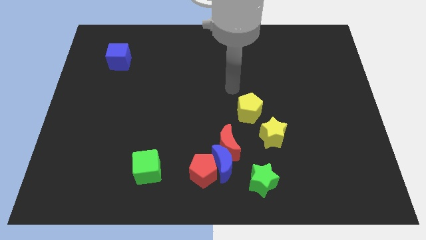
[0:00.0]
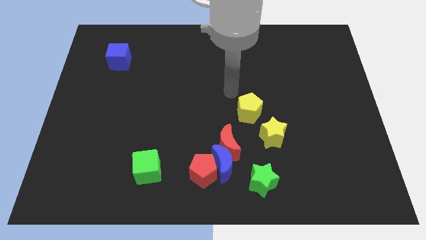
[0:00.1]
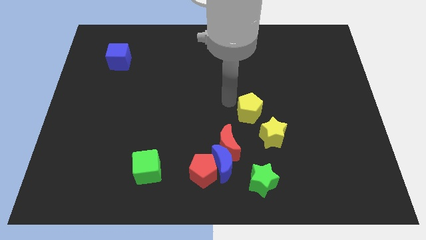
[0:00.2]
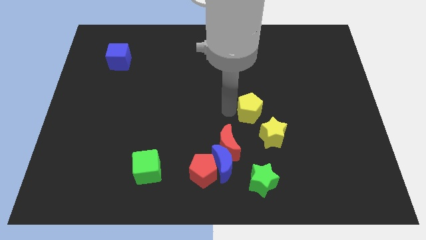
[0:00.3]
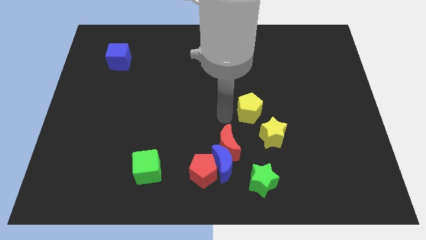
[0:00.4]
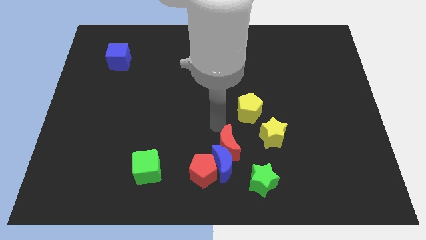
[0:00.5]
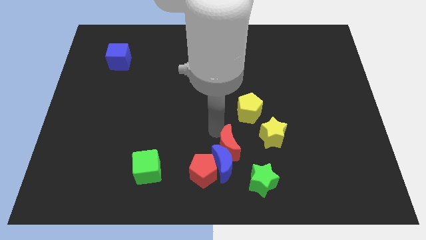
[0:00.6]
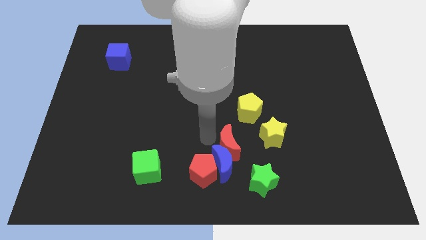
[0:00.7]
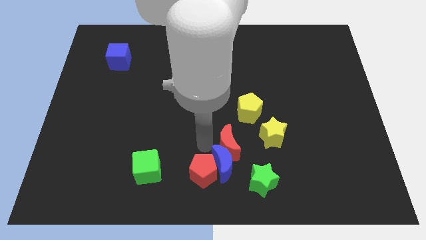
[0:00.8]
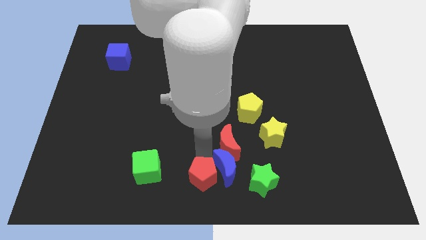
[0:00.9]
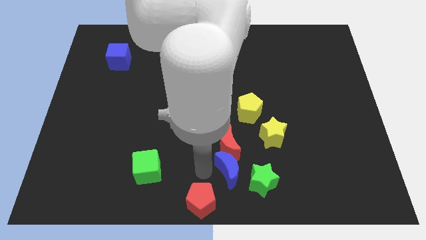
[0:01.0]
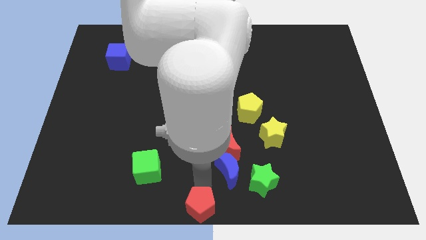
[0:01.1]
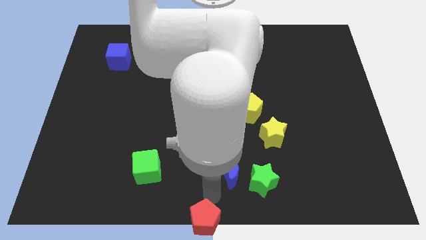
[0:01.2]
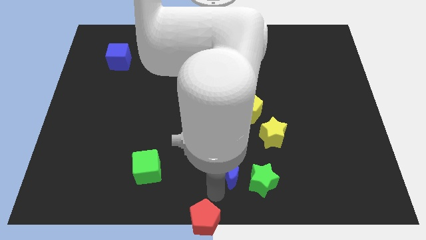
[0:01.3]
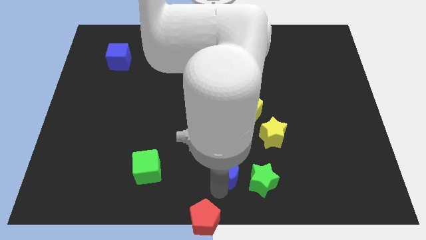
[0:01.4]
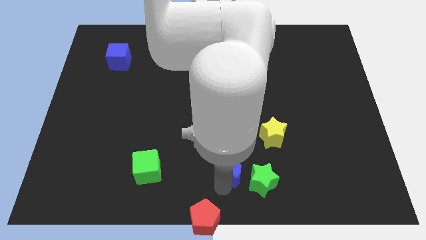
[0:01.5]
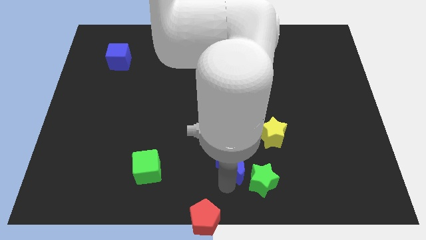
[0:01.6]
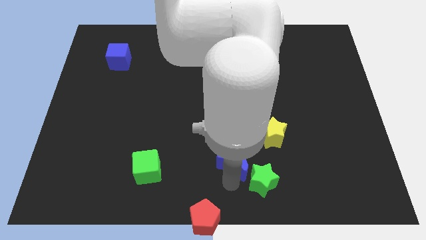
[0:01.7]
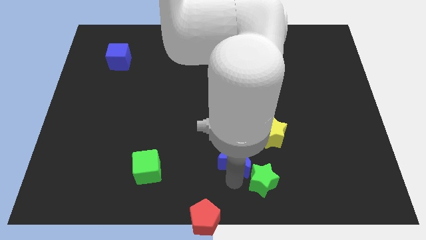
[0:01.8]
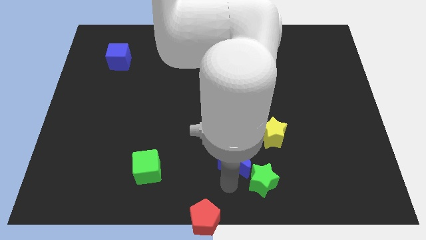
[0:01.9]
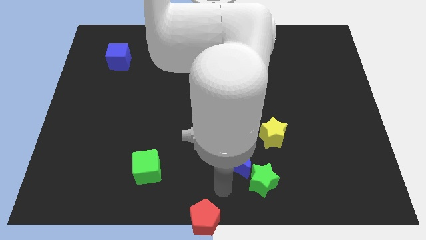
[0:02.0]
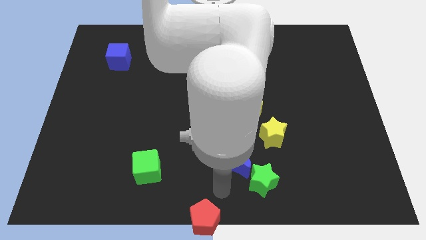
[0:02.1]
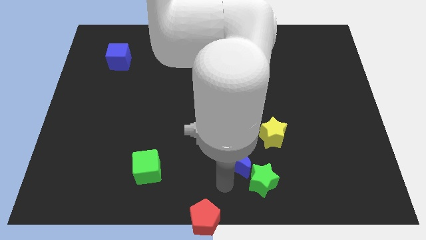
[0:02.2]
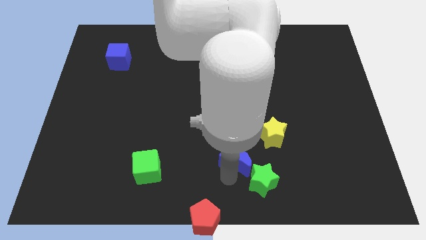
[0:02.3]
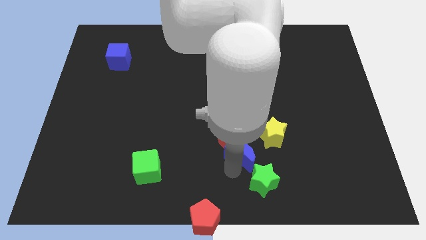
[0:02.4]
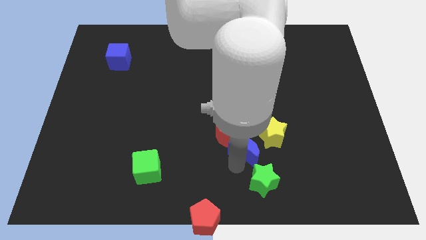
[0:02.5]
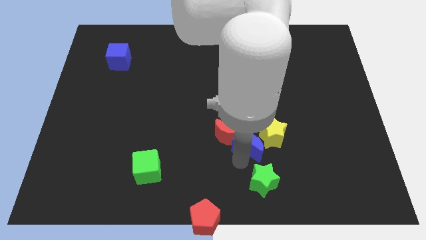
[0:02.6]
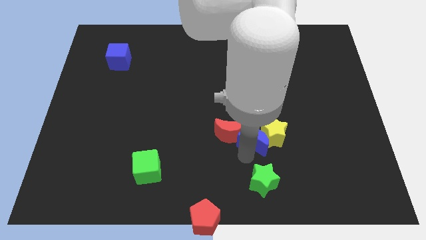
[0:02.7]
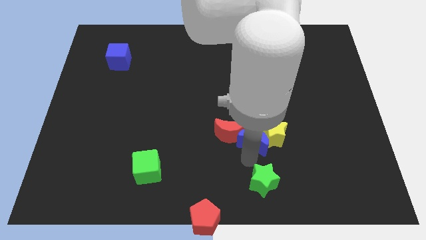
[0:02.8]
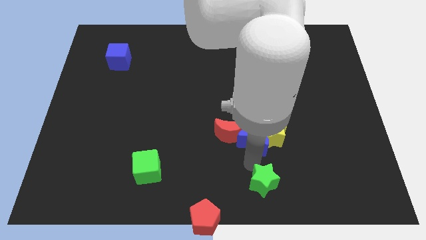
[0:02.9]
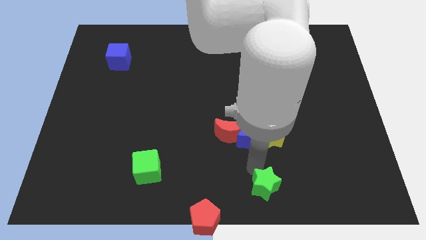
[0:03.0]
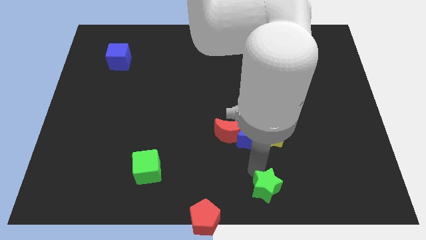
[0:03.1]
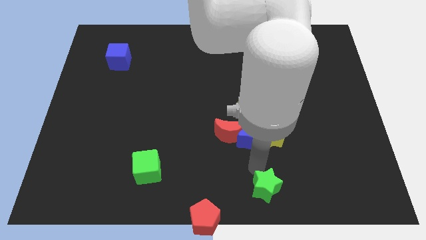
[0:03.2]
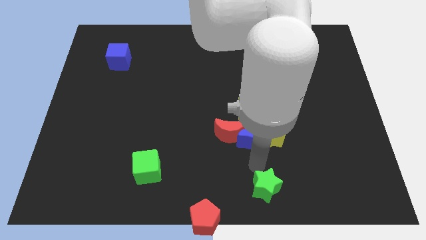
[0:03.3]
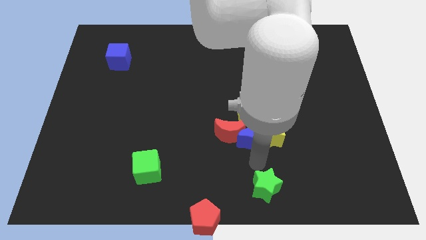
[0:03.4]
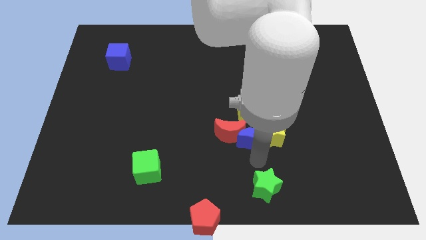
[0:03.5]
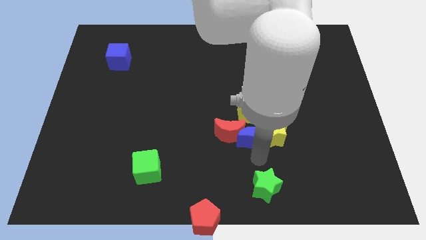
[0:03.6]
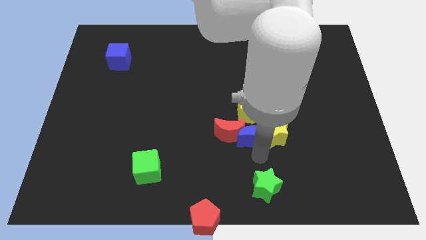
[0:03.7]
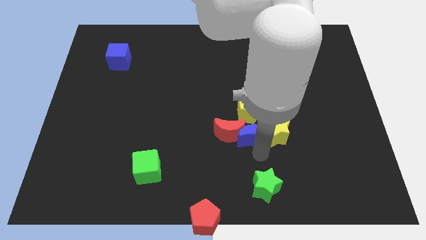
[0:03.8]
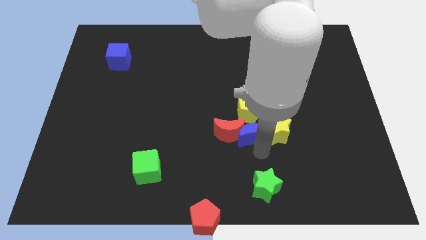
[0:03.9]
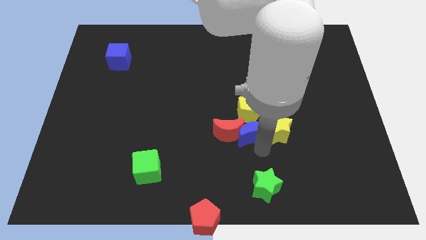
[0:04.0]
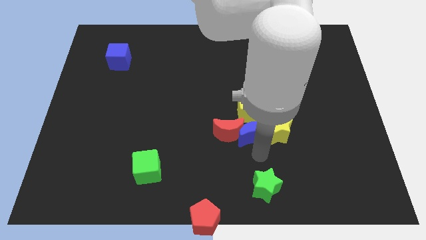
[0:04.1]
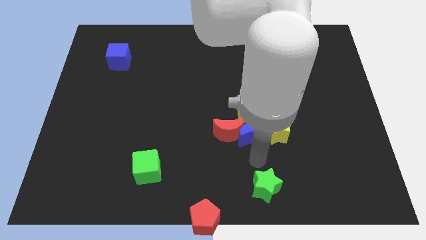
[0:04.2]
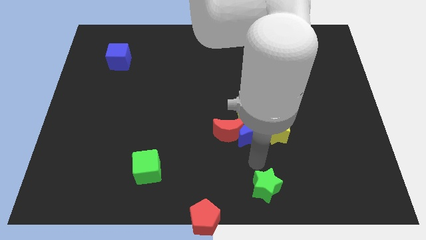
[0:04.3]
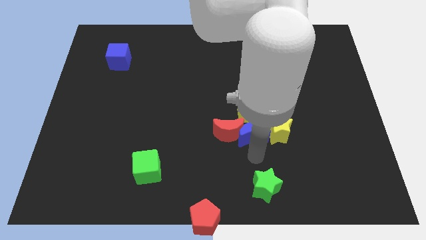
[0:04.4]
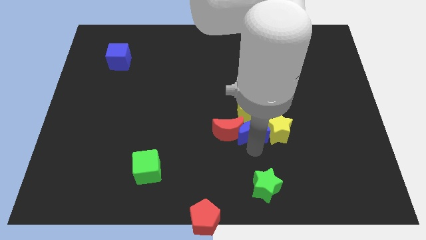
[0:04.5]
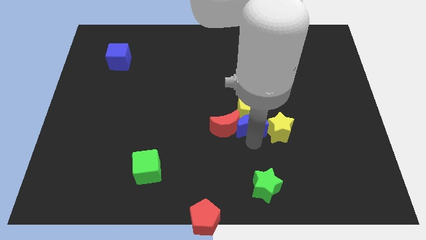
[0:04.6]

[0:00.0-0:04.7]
push the blue moon next to the yellow pentagon

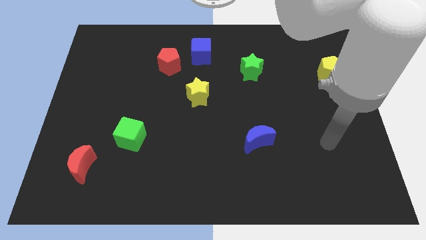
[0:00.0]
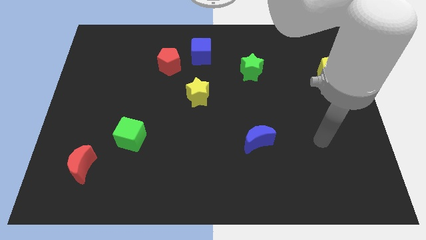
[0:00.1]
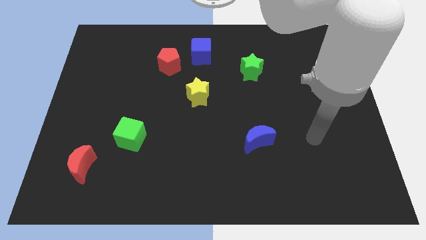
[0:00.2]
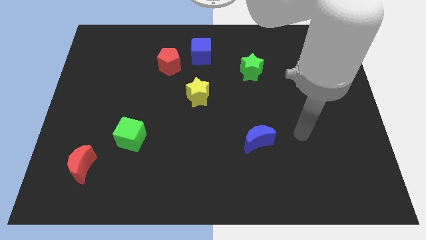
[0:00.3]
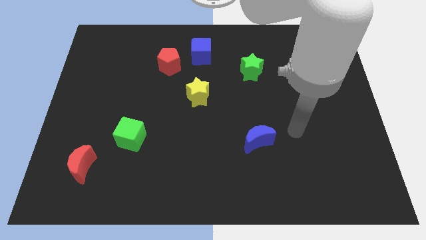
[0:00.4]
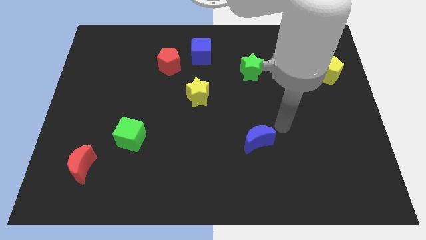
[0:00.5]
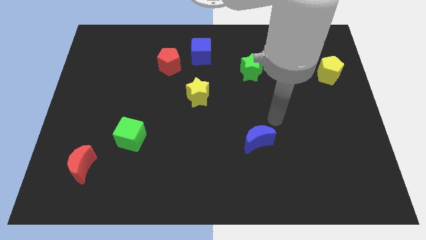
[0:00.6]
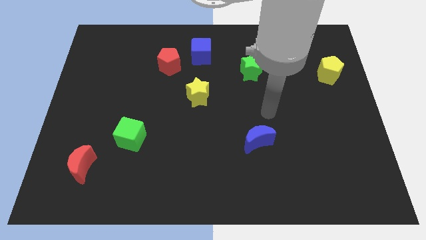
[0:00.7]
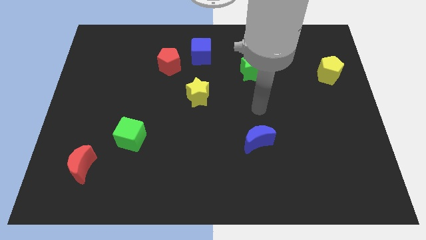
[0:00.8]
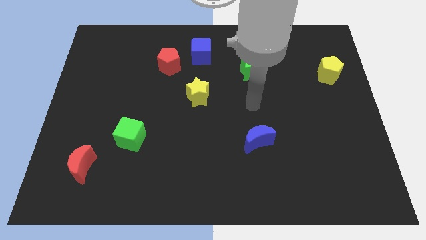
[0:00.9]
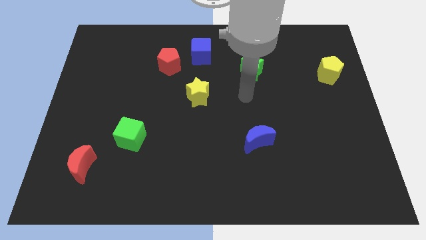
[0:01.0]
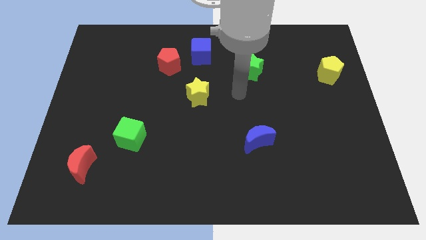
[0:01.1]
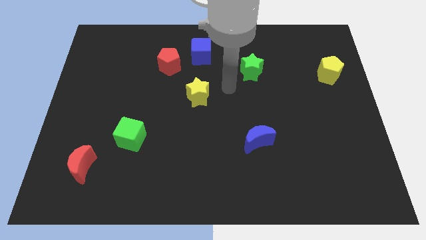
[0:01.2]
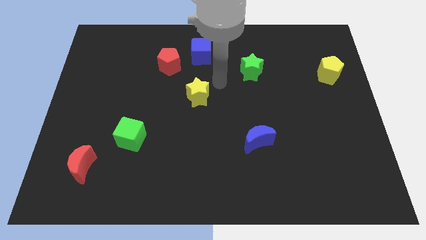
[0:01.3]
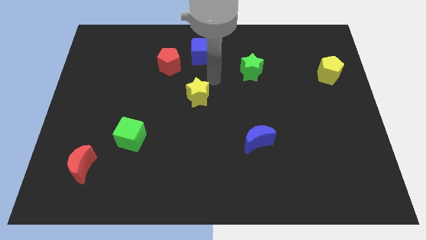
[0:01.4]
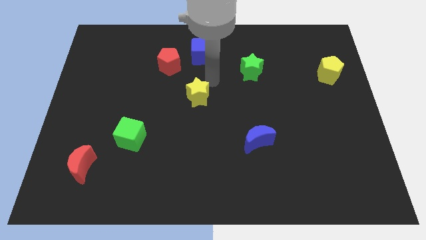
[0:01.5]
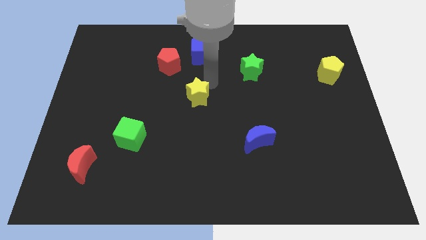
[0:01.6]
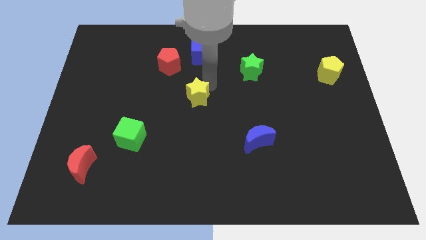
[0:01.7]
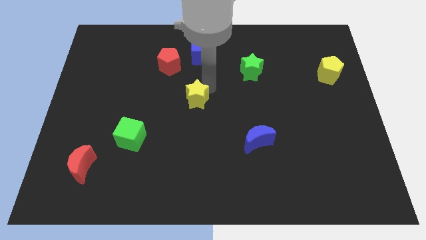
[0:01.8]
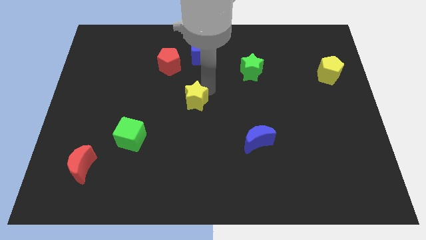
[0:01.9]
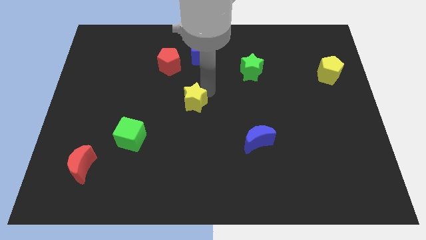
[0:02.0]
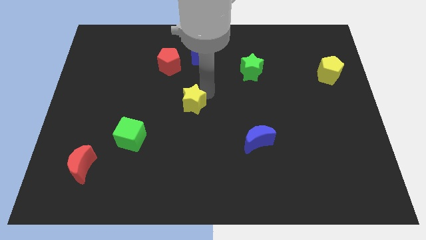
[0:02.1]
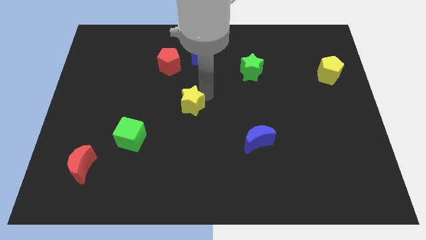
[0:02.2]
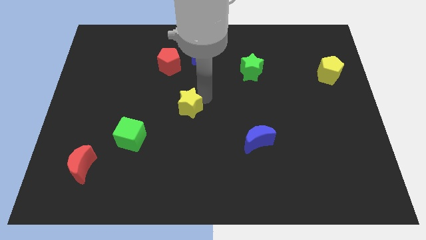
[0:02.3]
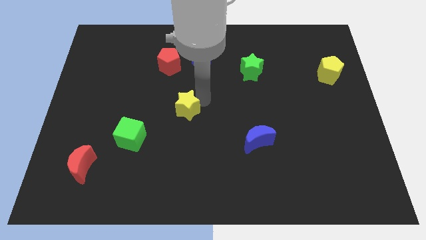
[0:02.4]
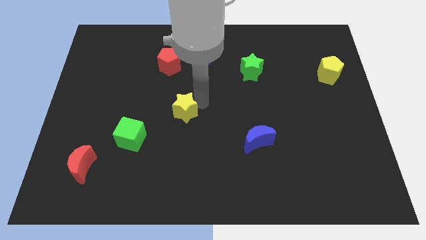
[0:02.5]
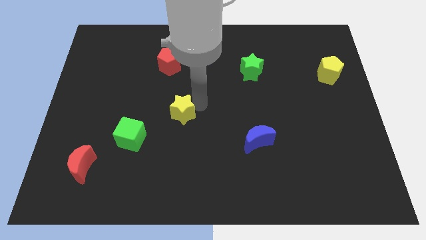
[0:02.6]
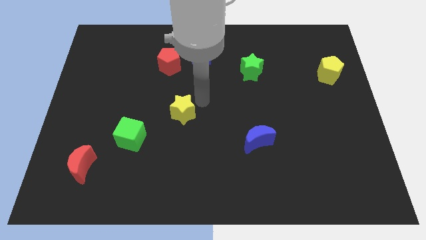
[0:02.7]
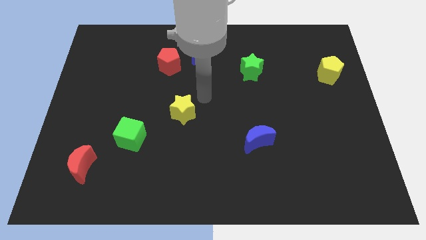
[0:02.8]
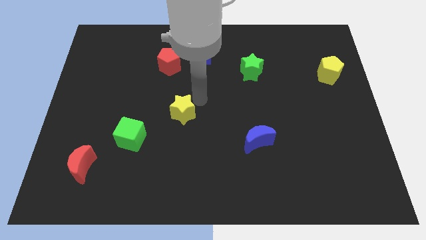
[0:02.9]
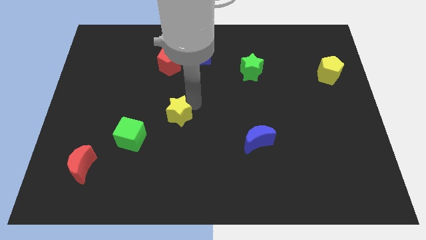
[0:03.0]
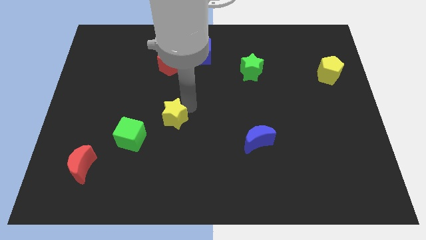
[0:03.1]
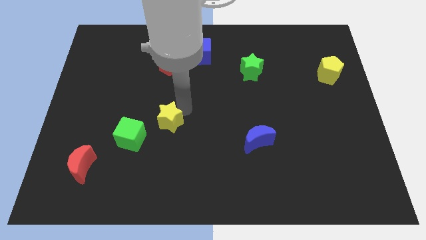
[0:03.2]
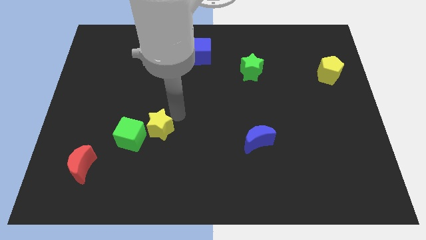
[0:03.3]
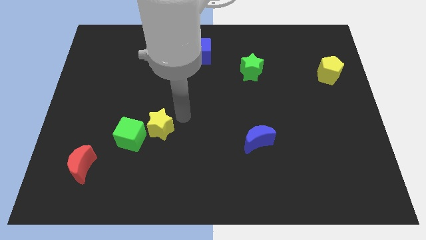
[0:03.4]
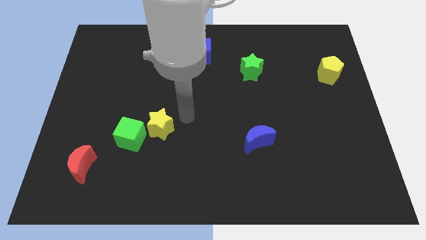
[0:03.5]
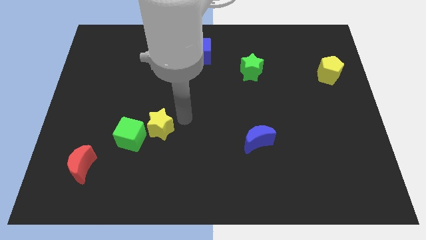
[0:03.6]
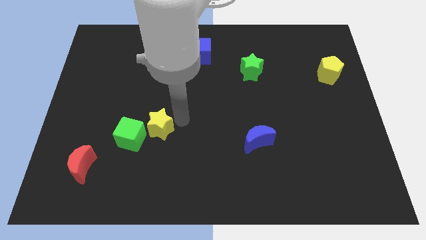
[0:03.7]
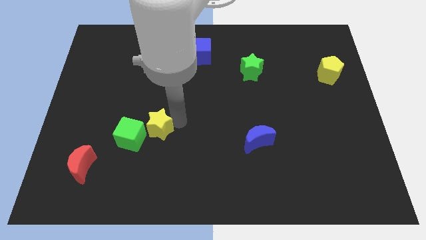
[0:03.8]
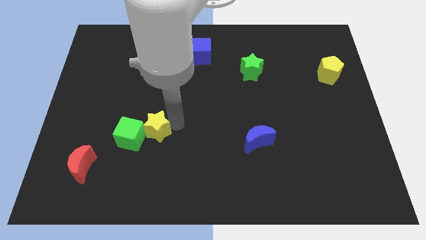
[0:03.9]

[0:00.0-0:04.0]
put the yellow star to the green cube
